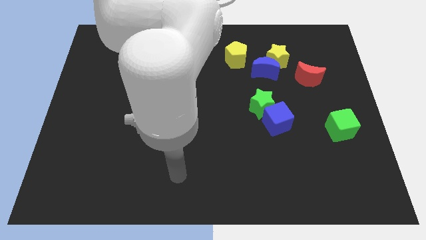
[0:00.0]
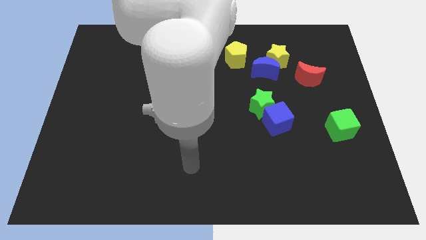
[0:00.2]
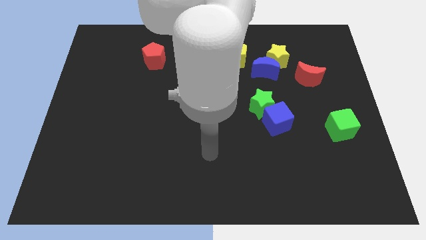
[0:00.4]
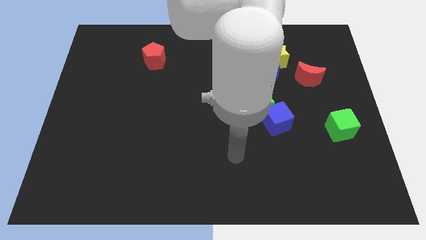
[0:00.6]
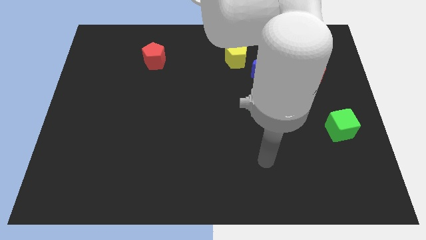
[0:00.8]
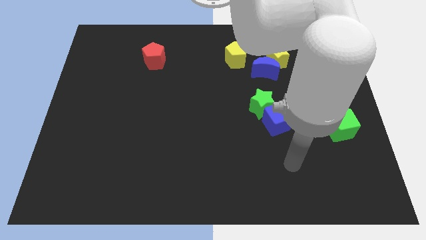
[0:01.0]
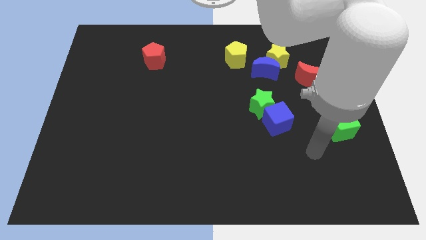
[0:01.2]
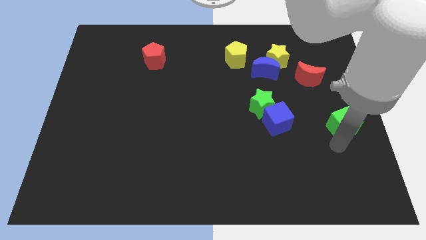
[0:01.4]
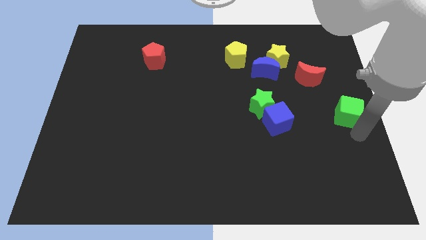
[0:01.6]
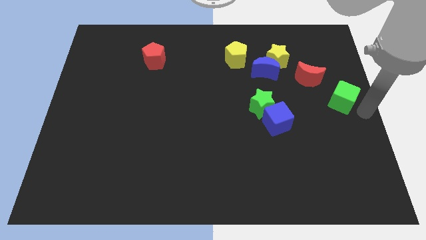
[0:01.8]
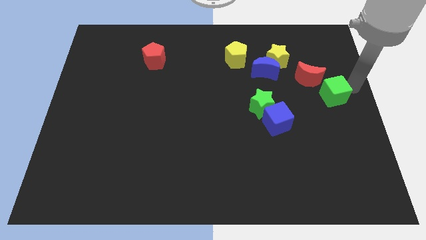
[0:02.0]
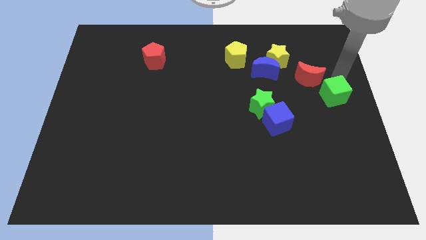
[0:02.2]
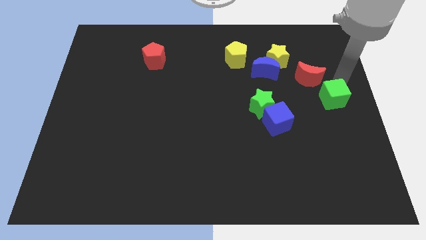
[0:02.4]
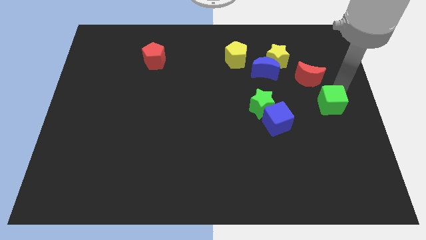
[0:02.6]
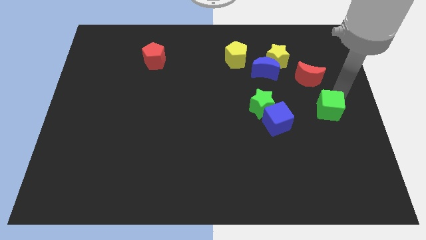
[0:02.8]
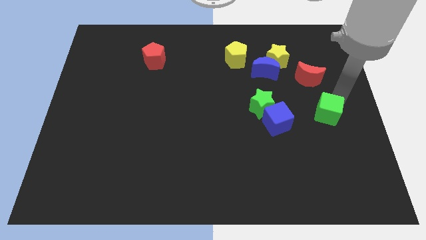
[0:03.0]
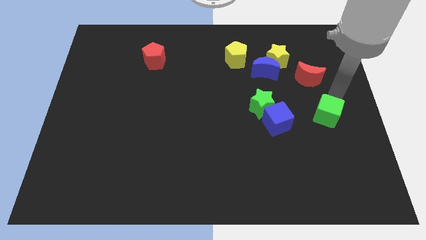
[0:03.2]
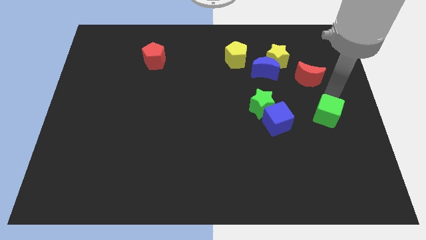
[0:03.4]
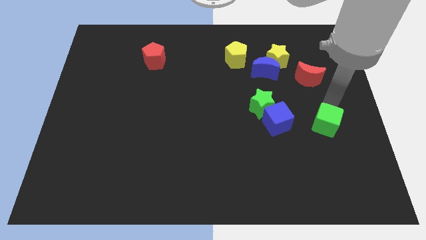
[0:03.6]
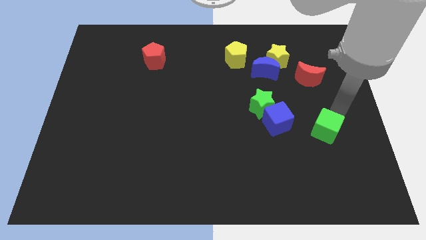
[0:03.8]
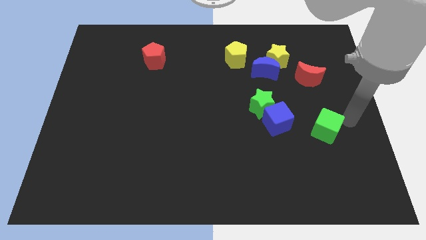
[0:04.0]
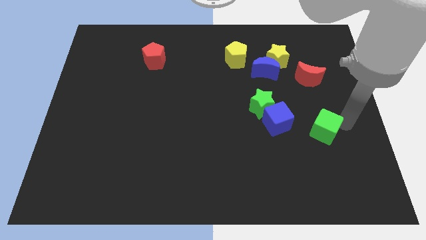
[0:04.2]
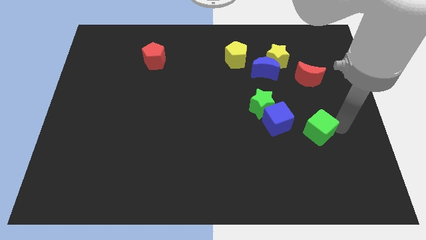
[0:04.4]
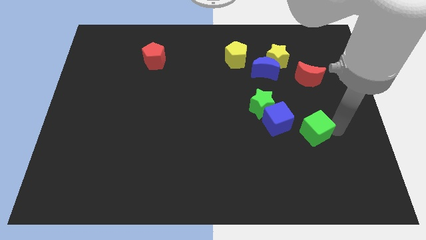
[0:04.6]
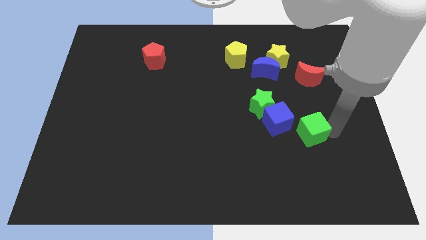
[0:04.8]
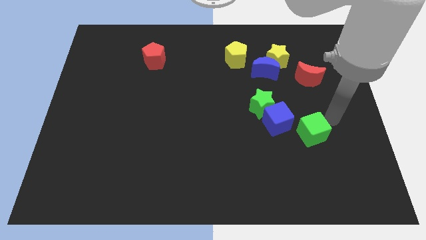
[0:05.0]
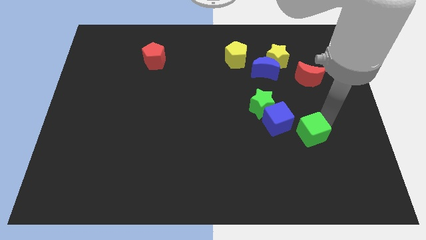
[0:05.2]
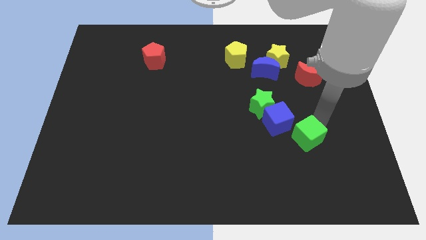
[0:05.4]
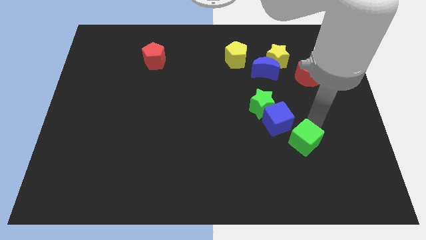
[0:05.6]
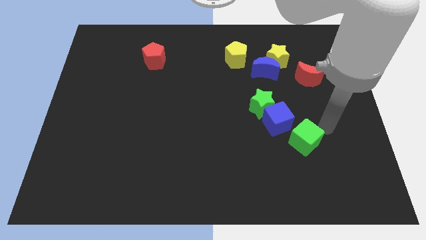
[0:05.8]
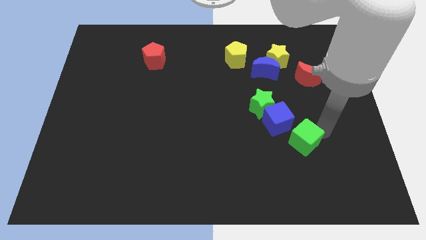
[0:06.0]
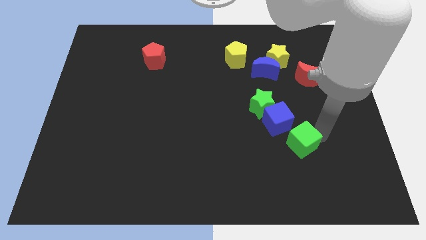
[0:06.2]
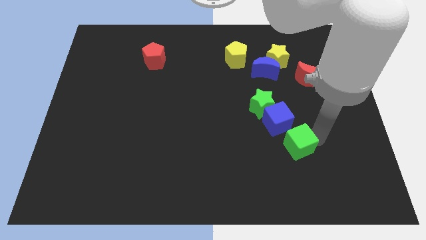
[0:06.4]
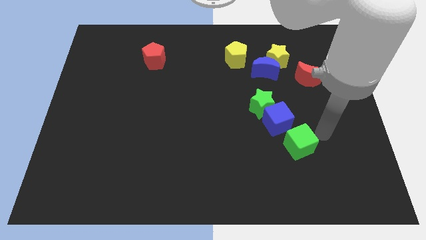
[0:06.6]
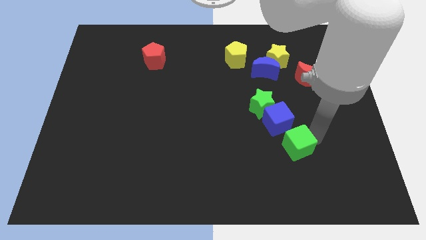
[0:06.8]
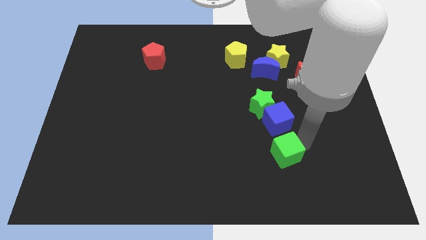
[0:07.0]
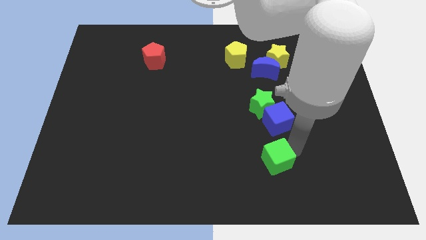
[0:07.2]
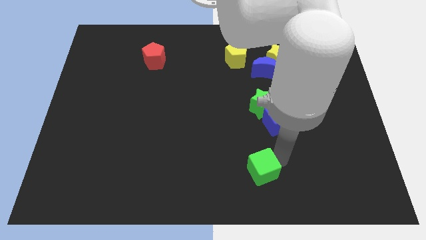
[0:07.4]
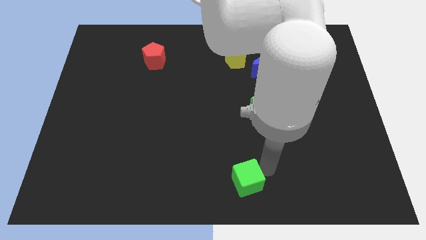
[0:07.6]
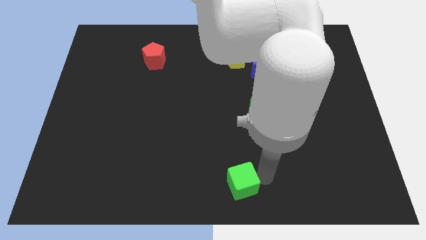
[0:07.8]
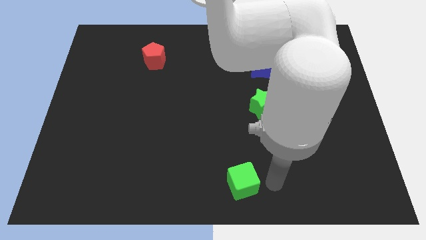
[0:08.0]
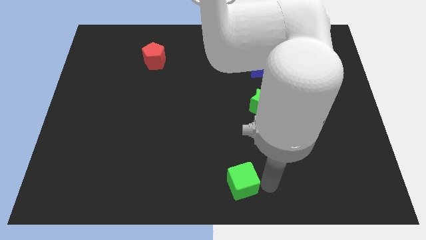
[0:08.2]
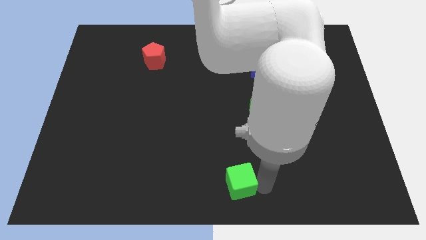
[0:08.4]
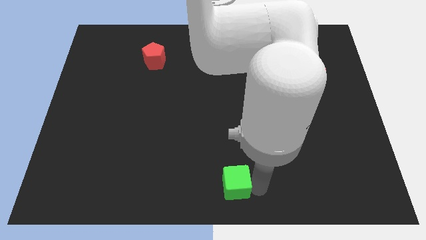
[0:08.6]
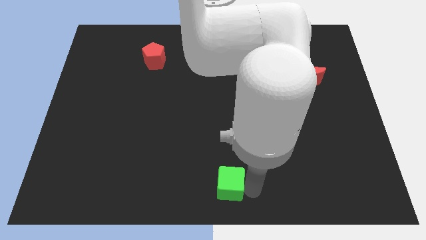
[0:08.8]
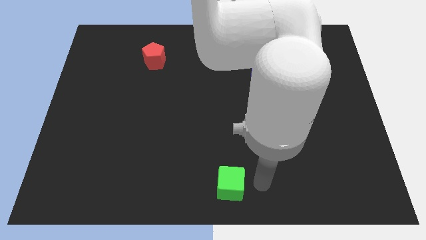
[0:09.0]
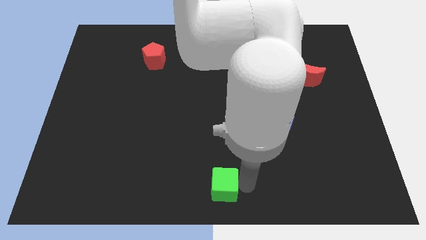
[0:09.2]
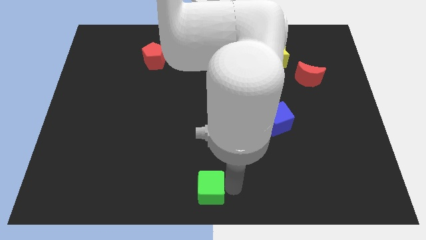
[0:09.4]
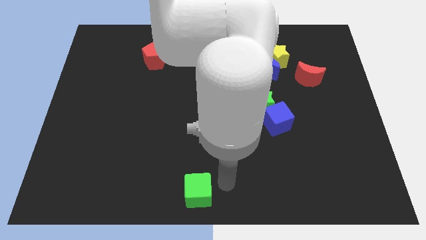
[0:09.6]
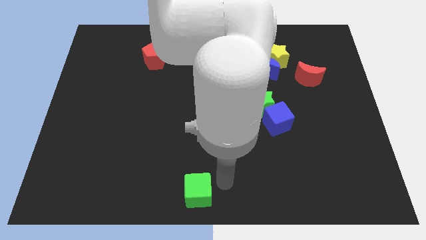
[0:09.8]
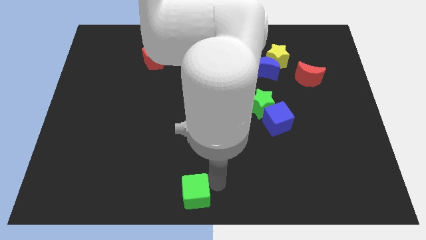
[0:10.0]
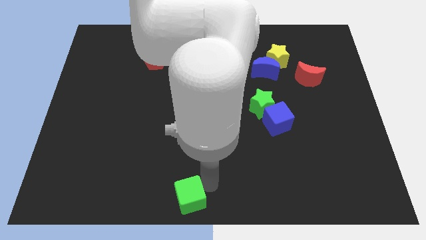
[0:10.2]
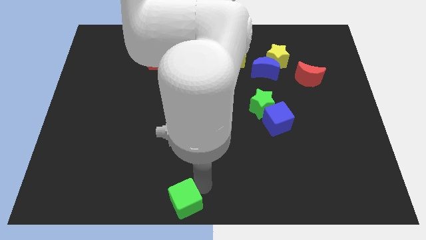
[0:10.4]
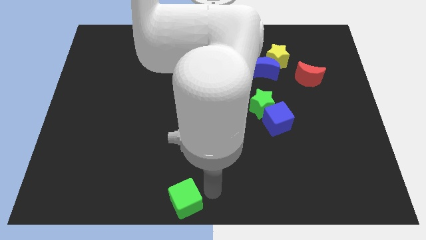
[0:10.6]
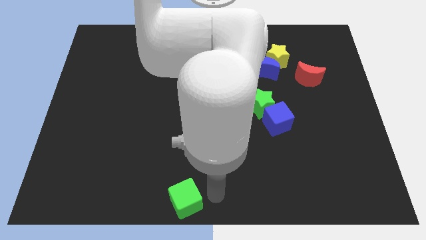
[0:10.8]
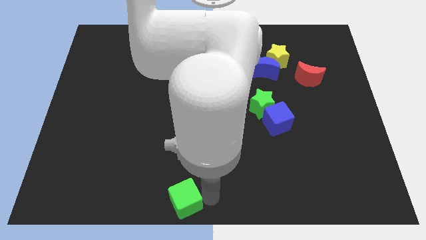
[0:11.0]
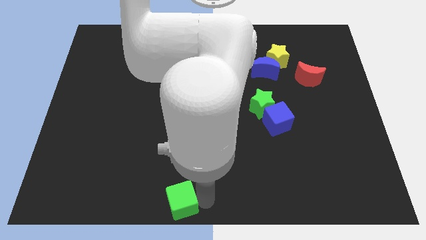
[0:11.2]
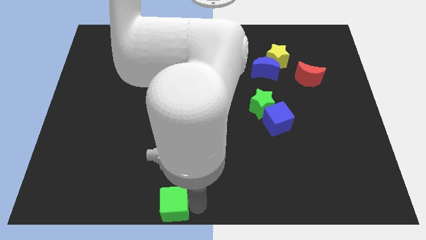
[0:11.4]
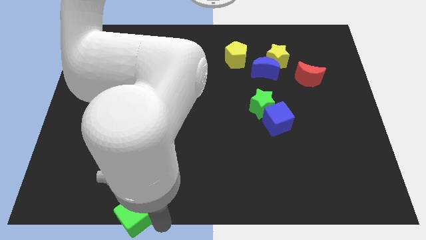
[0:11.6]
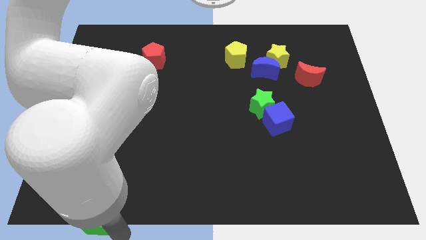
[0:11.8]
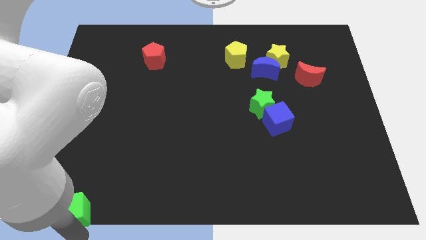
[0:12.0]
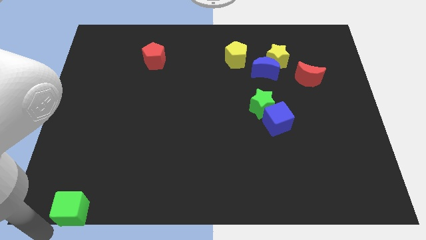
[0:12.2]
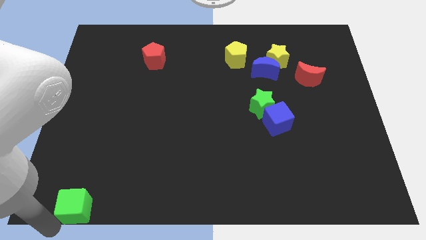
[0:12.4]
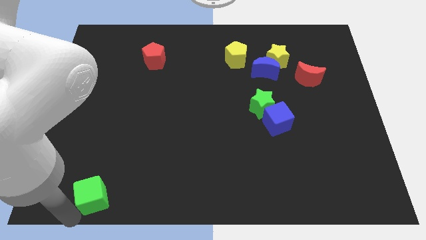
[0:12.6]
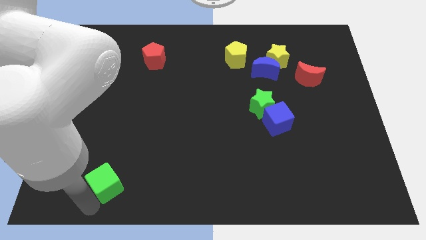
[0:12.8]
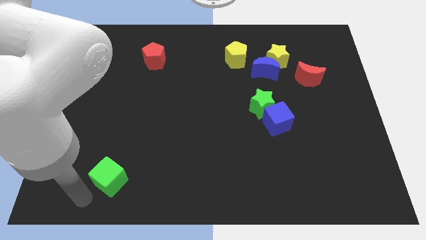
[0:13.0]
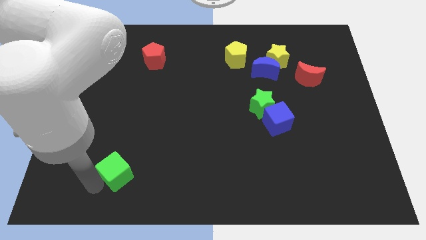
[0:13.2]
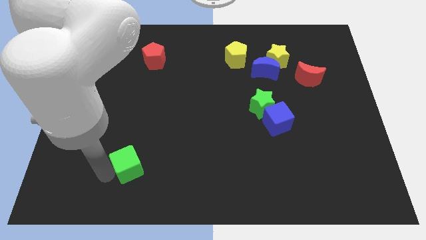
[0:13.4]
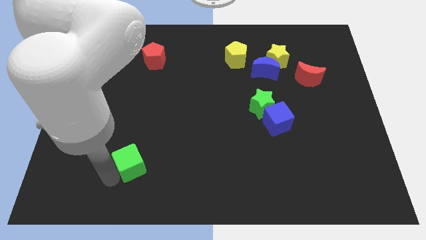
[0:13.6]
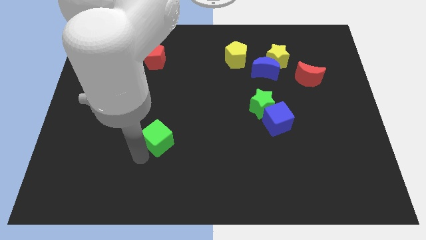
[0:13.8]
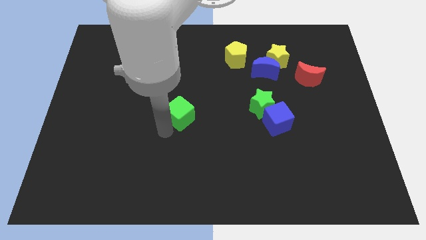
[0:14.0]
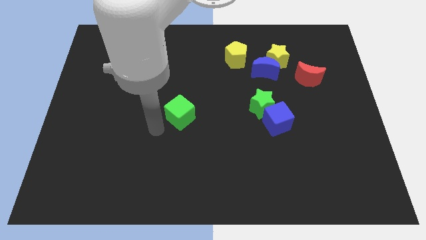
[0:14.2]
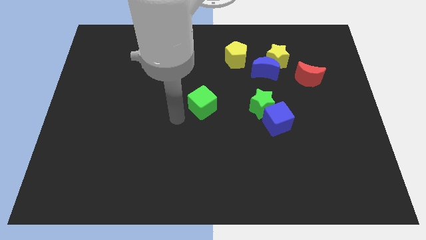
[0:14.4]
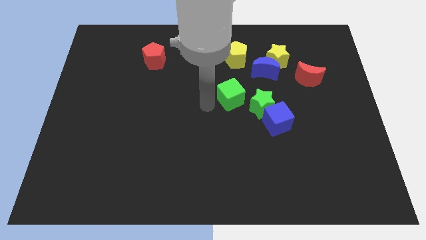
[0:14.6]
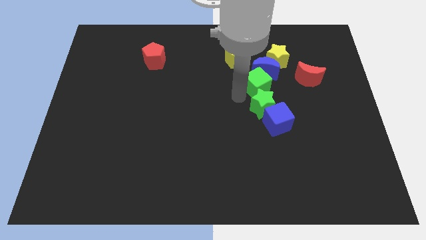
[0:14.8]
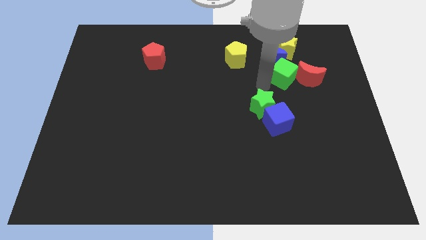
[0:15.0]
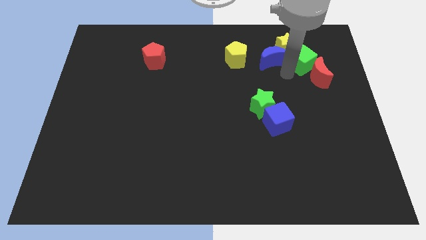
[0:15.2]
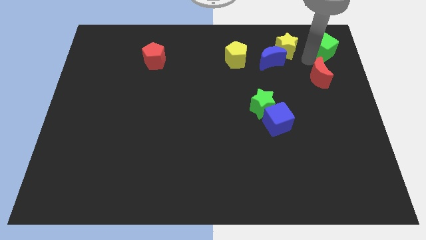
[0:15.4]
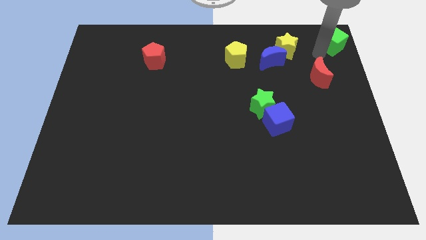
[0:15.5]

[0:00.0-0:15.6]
slide the green cube to the top right of the board
